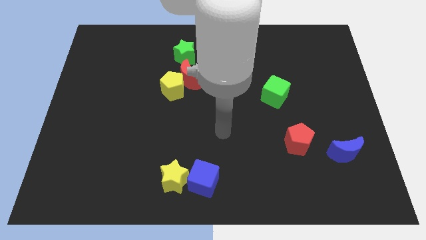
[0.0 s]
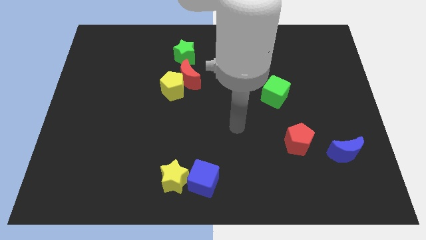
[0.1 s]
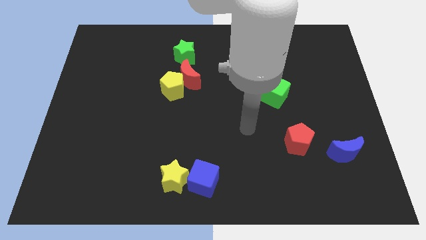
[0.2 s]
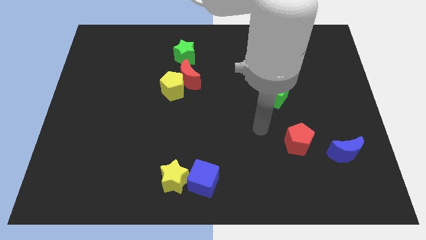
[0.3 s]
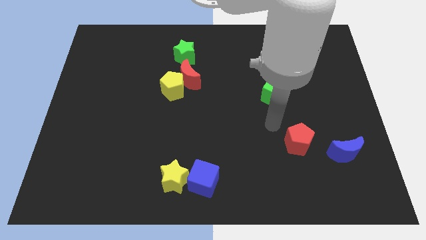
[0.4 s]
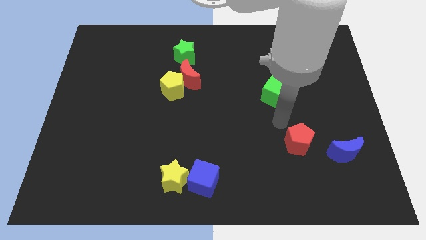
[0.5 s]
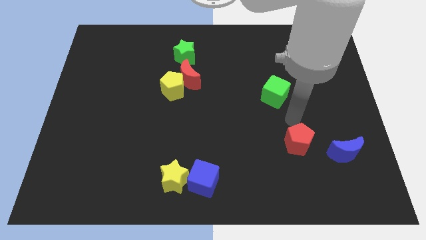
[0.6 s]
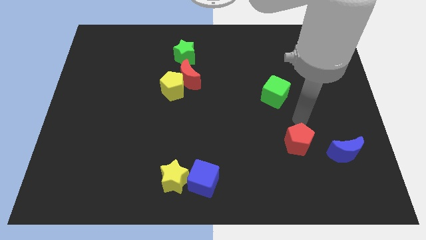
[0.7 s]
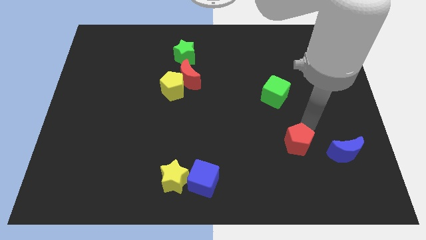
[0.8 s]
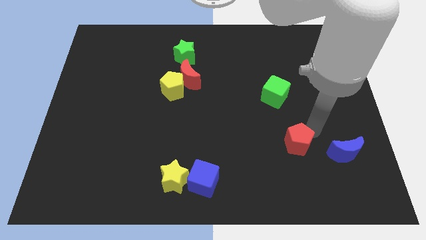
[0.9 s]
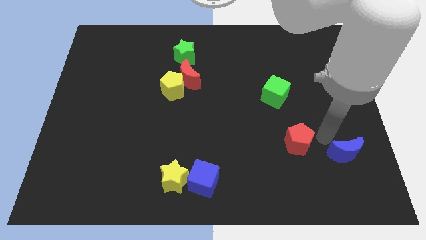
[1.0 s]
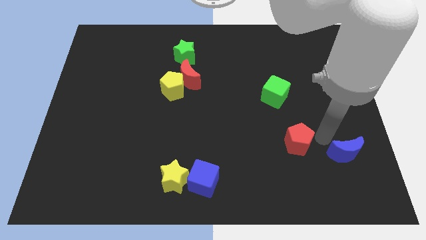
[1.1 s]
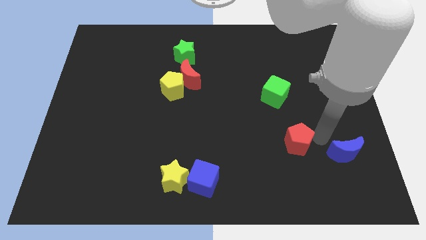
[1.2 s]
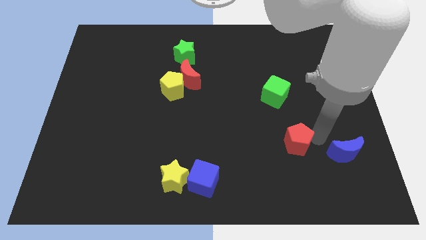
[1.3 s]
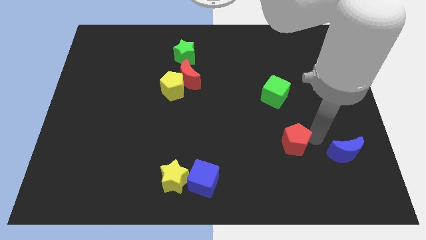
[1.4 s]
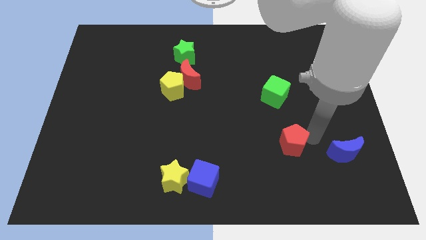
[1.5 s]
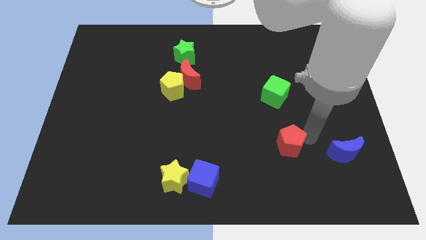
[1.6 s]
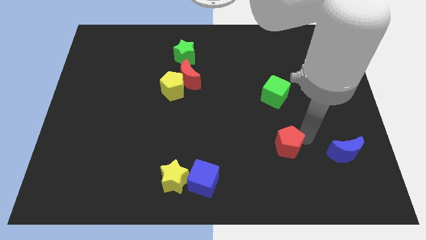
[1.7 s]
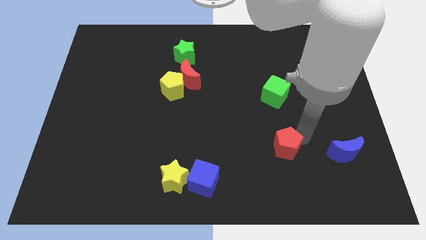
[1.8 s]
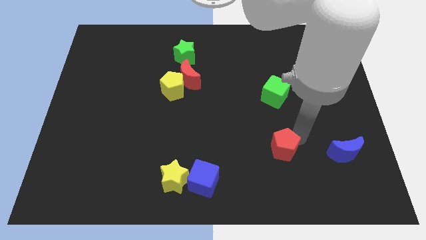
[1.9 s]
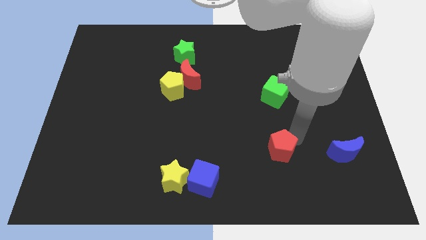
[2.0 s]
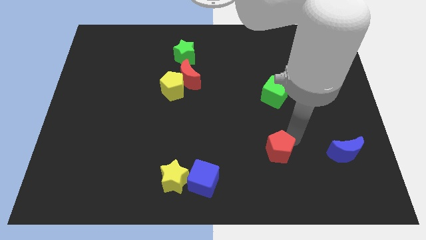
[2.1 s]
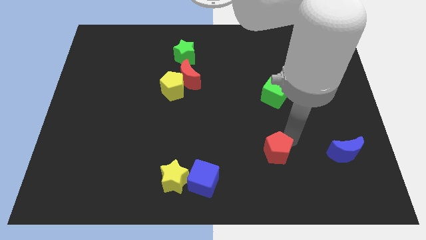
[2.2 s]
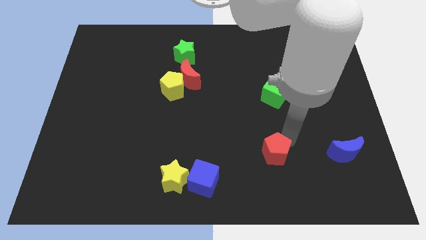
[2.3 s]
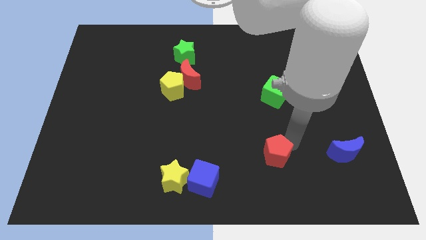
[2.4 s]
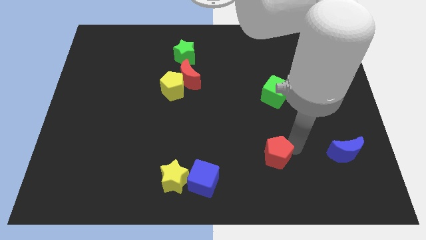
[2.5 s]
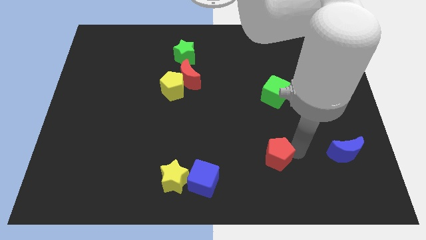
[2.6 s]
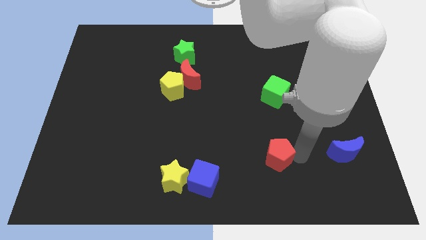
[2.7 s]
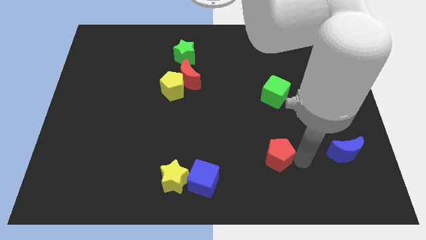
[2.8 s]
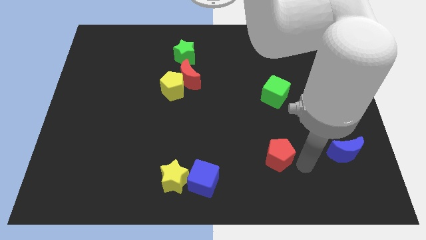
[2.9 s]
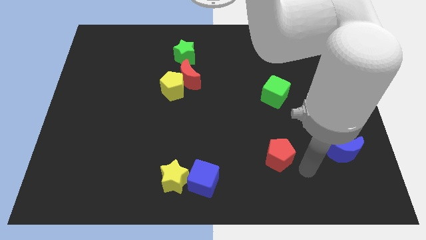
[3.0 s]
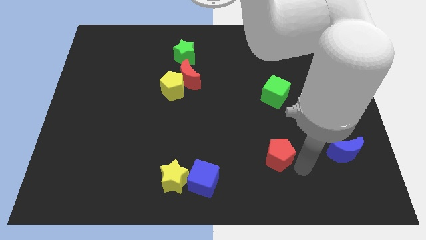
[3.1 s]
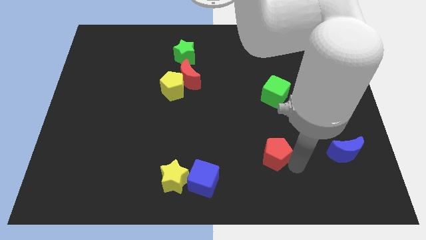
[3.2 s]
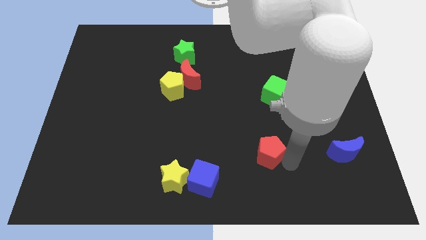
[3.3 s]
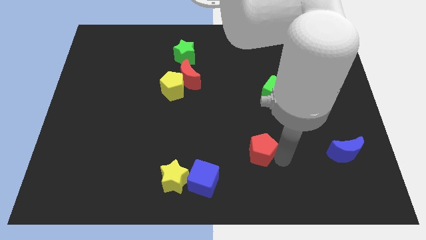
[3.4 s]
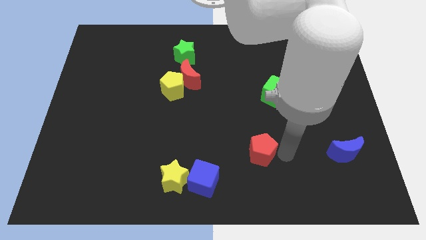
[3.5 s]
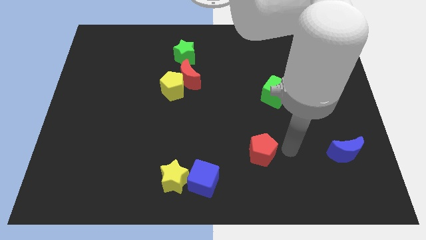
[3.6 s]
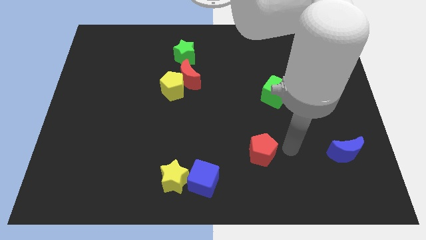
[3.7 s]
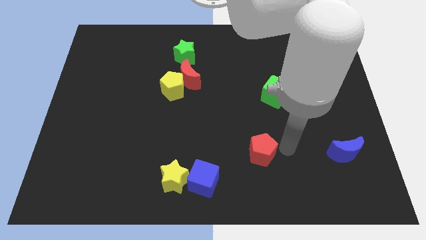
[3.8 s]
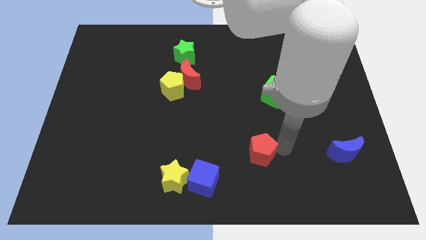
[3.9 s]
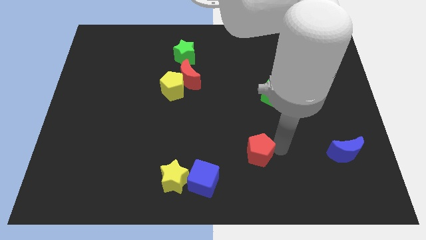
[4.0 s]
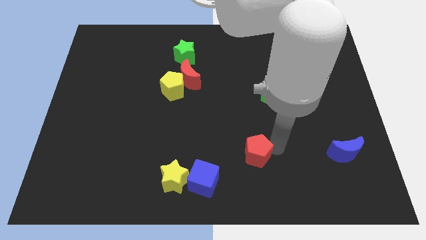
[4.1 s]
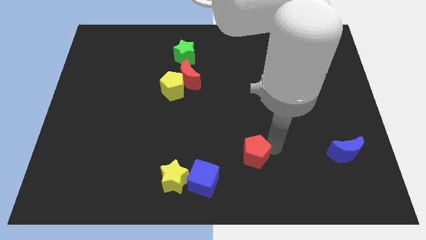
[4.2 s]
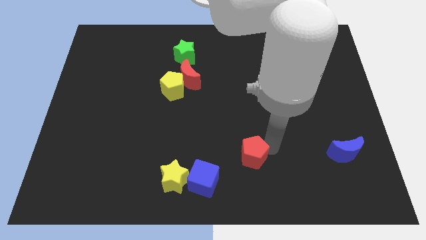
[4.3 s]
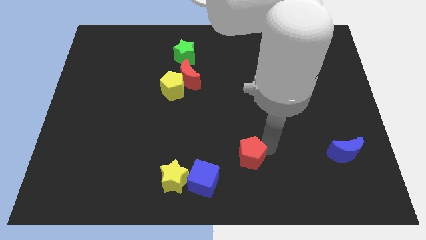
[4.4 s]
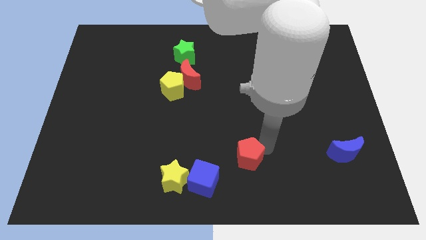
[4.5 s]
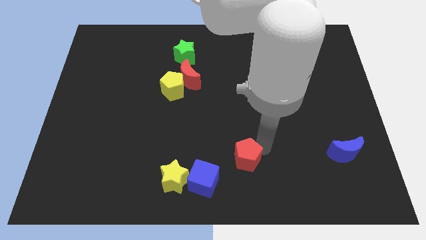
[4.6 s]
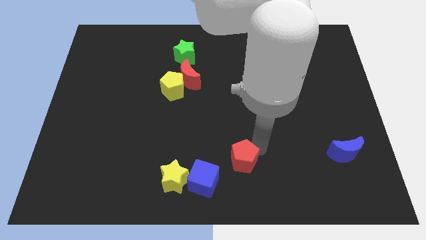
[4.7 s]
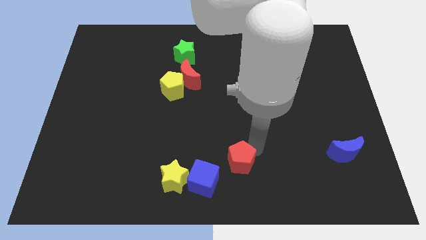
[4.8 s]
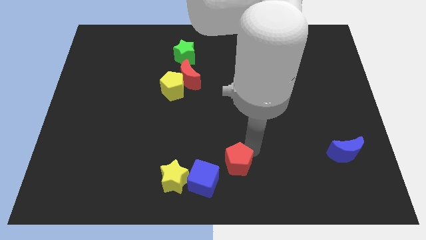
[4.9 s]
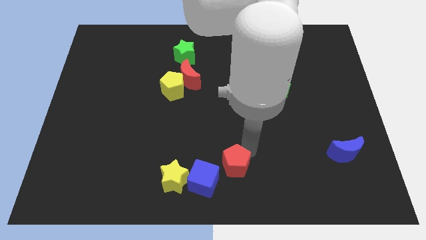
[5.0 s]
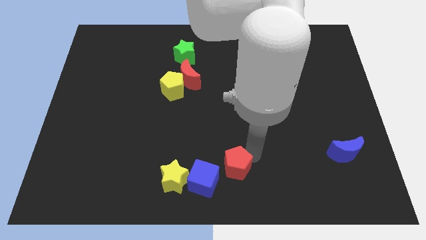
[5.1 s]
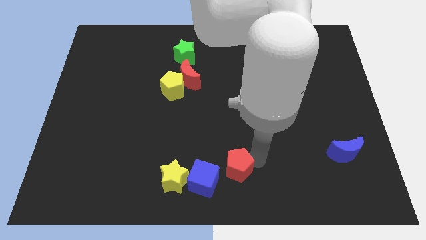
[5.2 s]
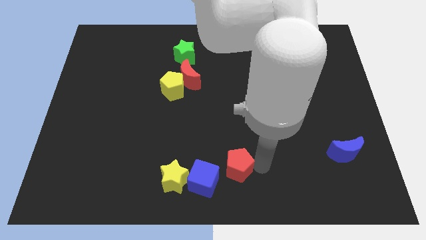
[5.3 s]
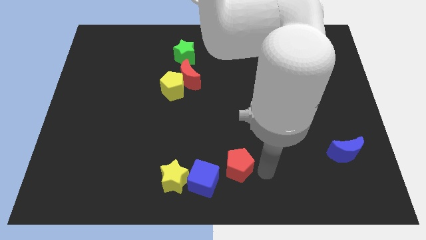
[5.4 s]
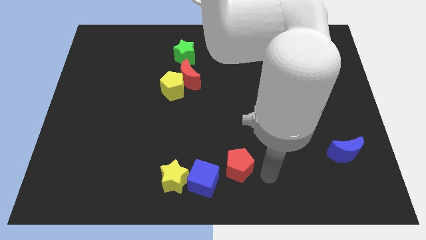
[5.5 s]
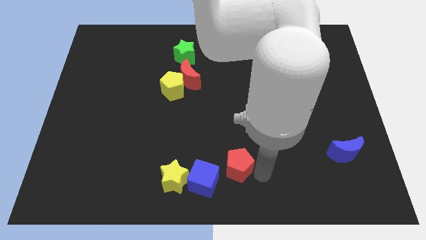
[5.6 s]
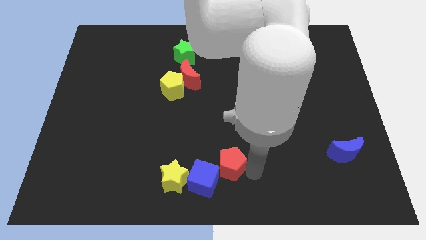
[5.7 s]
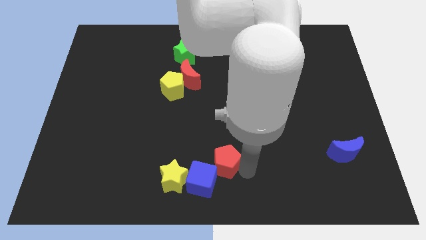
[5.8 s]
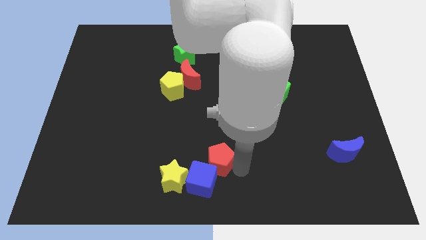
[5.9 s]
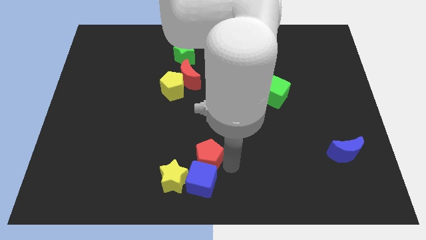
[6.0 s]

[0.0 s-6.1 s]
slide the red pentagon to the top left side of the blue cube

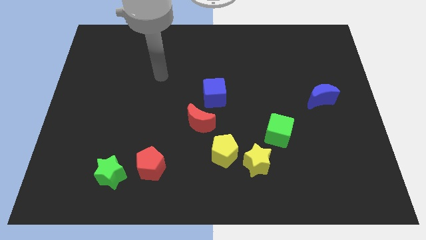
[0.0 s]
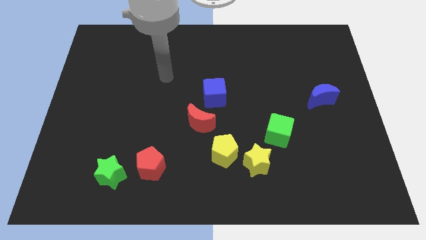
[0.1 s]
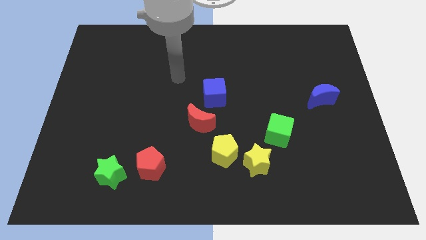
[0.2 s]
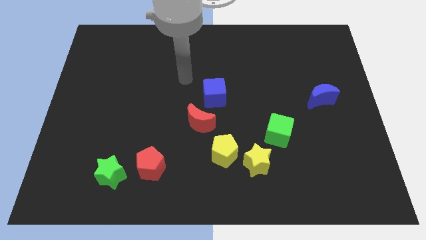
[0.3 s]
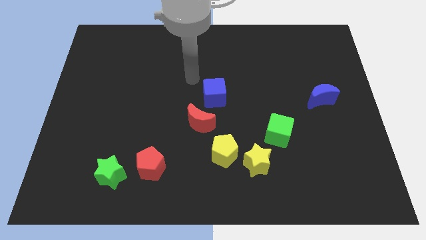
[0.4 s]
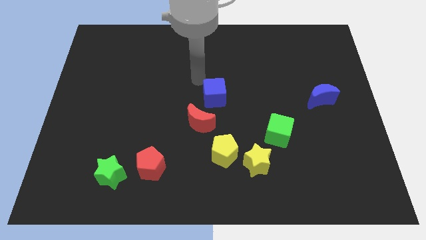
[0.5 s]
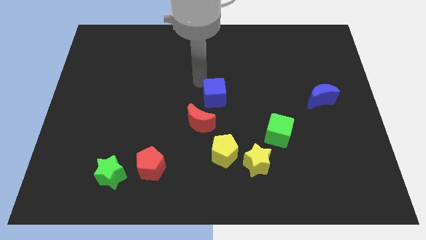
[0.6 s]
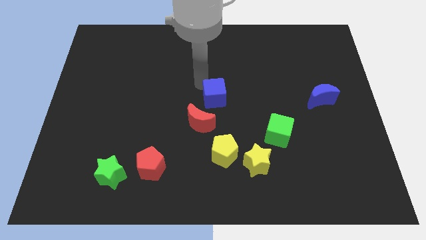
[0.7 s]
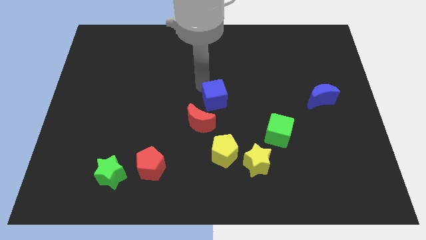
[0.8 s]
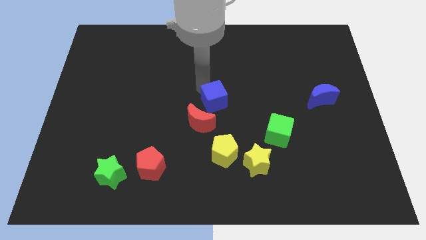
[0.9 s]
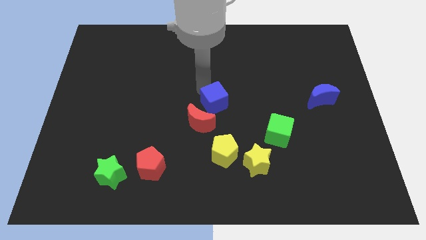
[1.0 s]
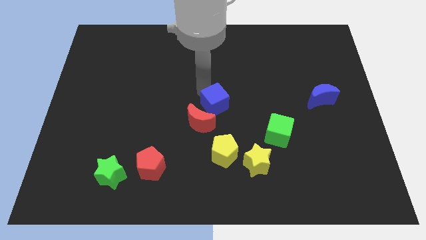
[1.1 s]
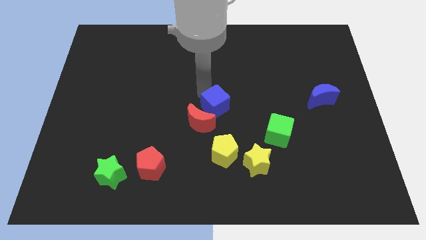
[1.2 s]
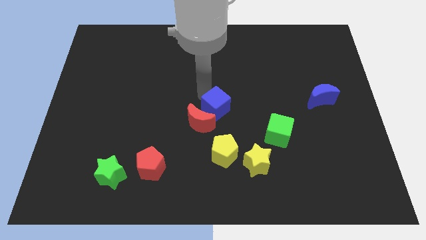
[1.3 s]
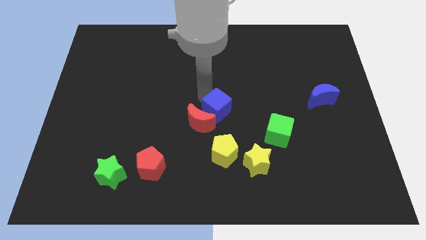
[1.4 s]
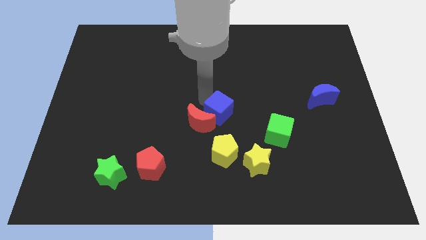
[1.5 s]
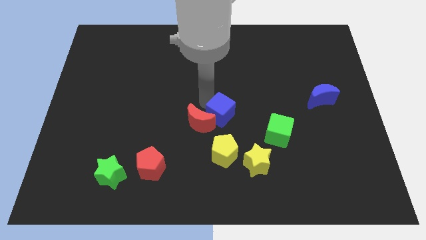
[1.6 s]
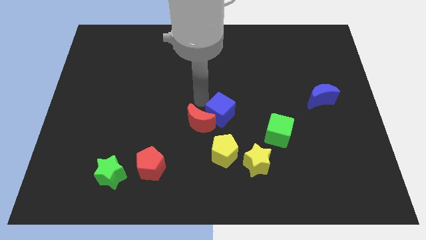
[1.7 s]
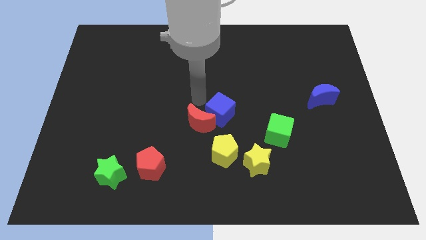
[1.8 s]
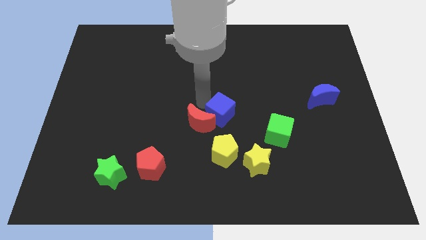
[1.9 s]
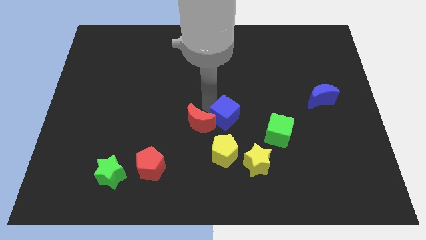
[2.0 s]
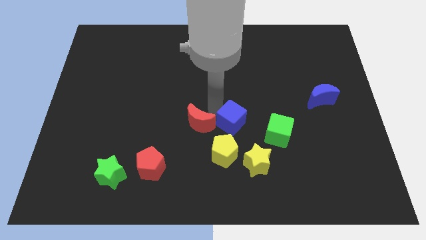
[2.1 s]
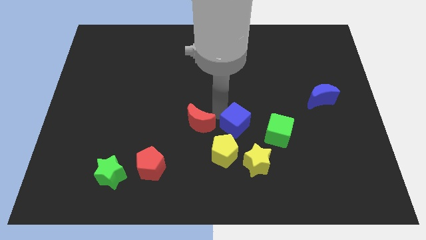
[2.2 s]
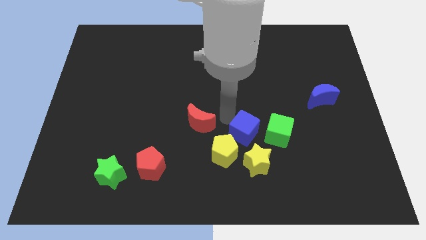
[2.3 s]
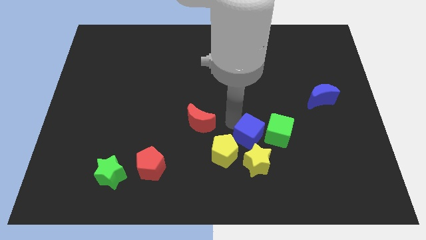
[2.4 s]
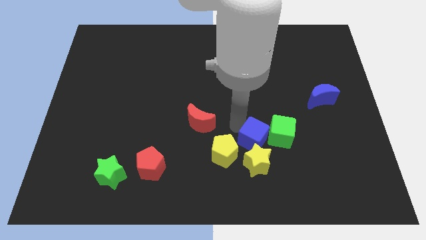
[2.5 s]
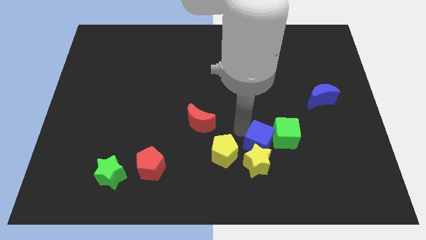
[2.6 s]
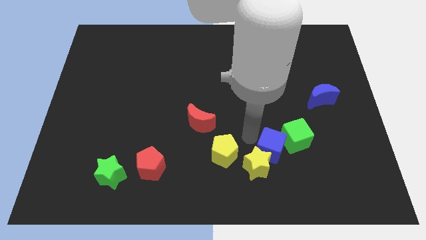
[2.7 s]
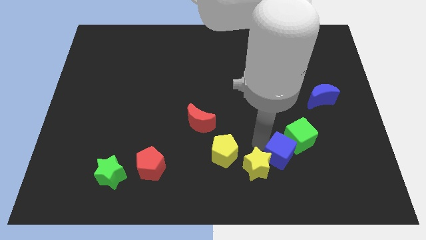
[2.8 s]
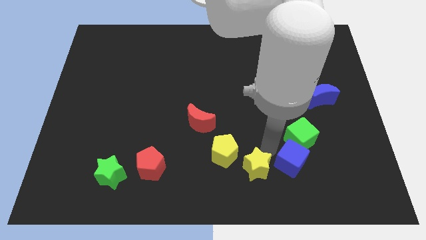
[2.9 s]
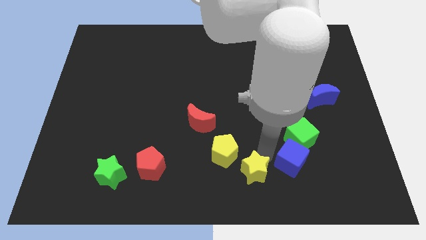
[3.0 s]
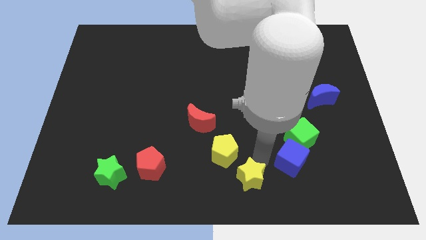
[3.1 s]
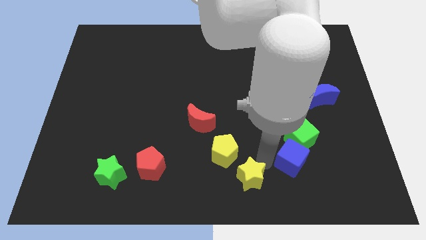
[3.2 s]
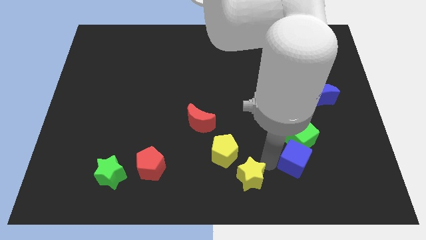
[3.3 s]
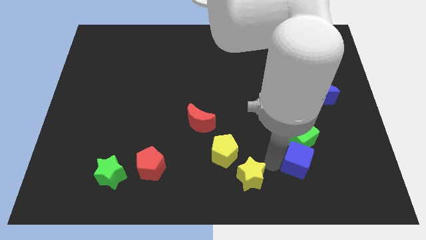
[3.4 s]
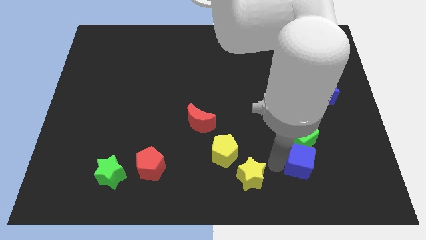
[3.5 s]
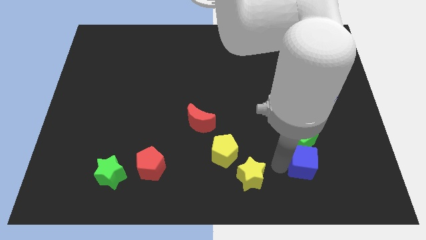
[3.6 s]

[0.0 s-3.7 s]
move the blue cube diagonally down and to the right of the green cube
